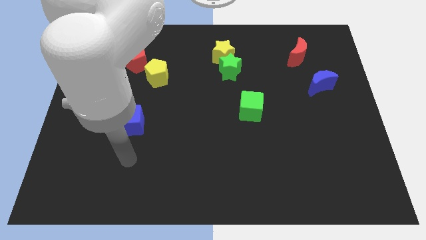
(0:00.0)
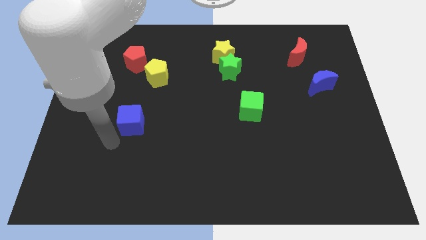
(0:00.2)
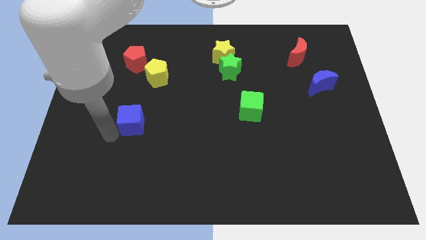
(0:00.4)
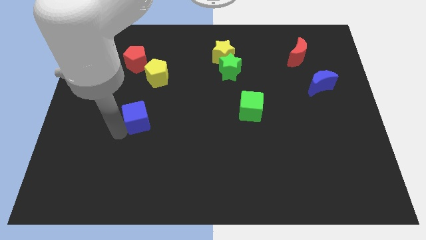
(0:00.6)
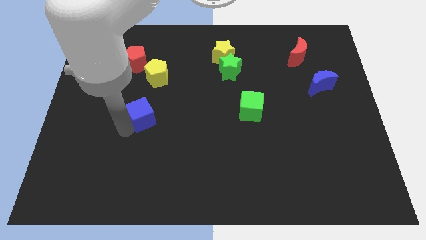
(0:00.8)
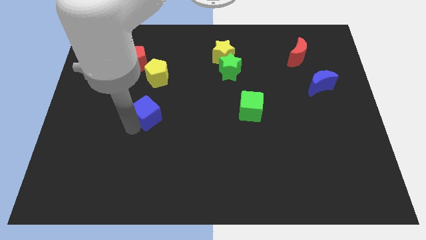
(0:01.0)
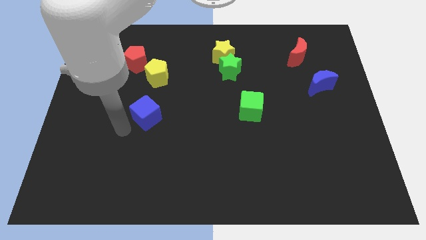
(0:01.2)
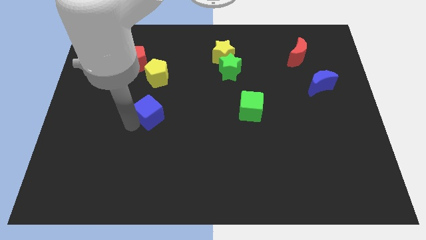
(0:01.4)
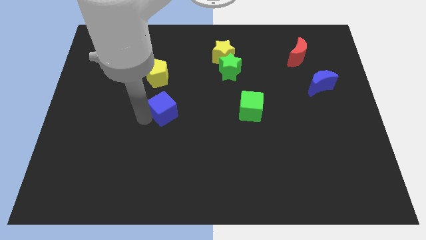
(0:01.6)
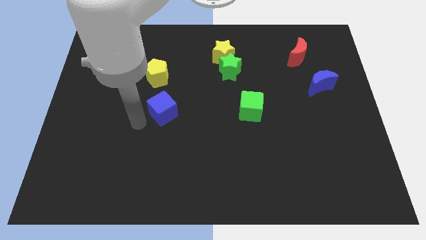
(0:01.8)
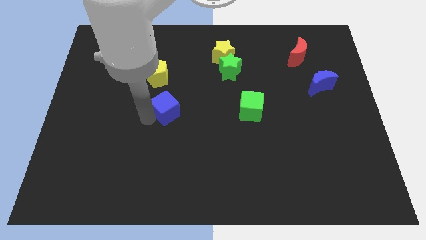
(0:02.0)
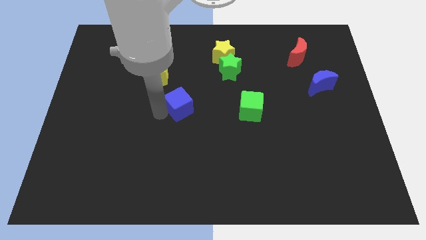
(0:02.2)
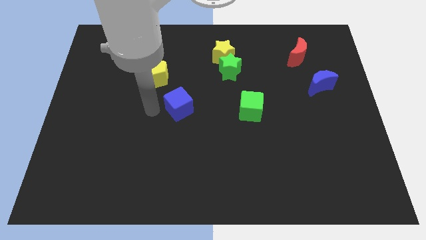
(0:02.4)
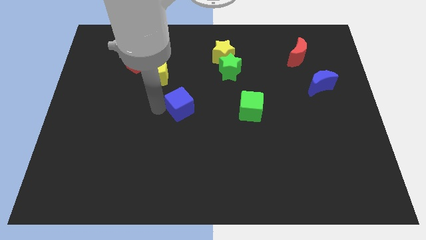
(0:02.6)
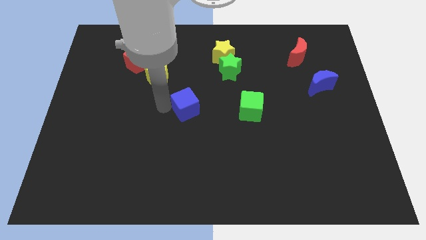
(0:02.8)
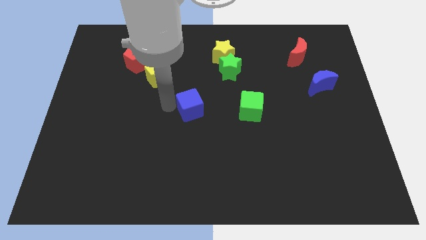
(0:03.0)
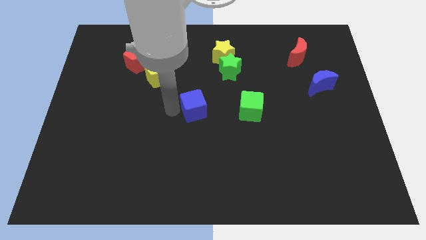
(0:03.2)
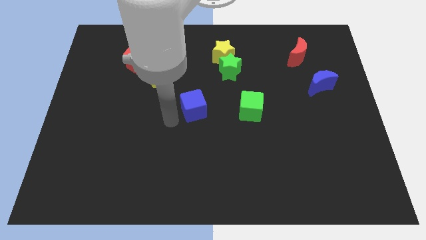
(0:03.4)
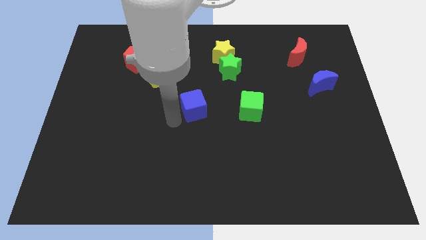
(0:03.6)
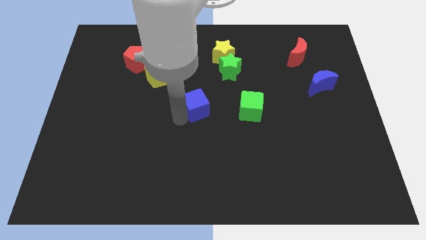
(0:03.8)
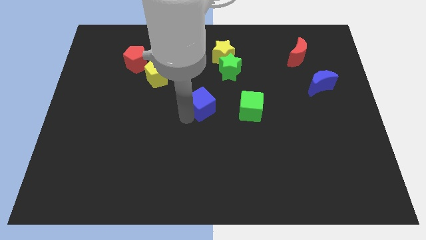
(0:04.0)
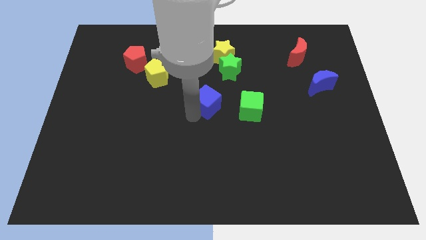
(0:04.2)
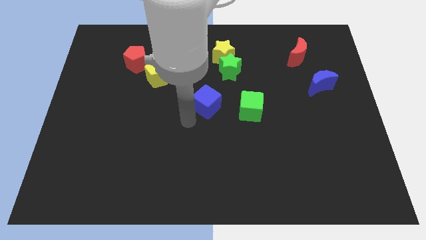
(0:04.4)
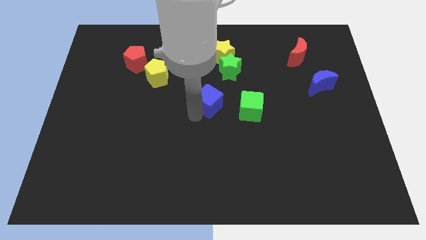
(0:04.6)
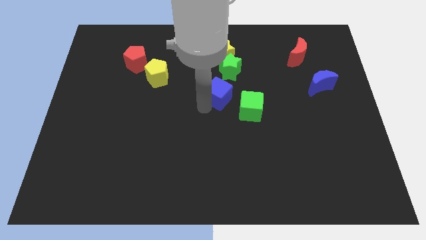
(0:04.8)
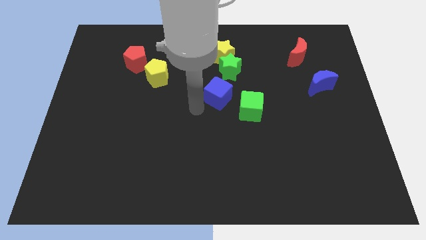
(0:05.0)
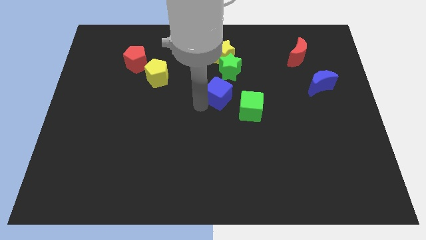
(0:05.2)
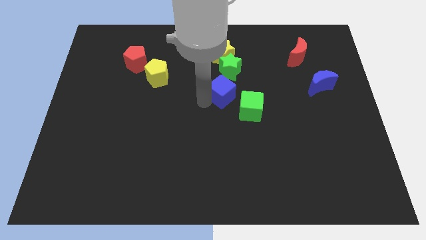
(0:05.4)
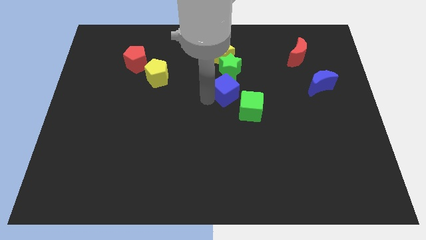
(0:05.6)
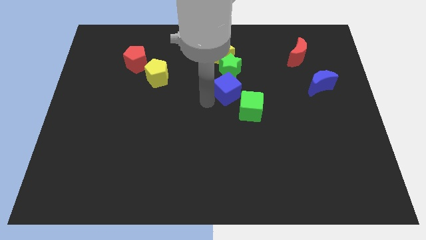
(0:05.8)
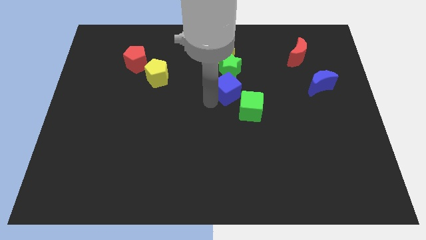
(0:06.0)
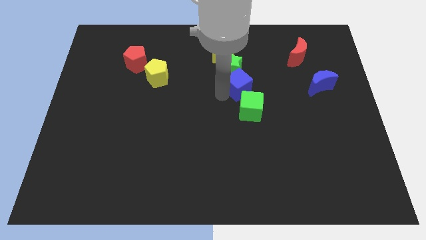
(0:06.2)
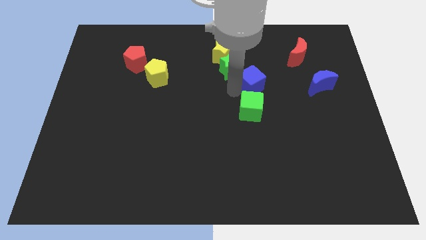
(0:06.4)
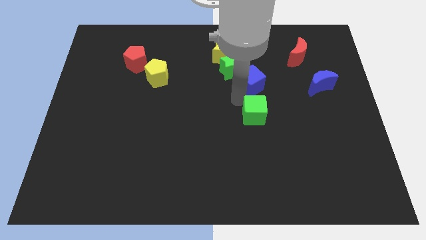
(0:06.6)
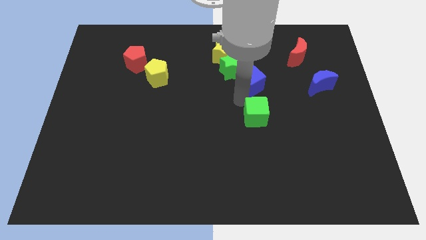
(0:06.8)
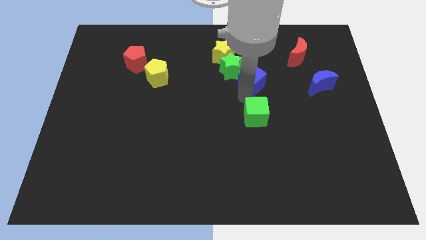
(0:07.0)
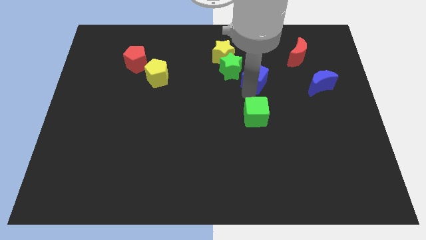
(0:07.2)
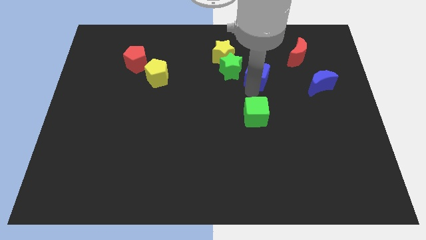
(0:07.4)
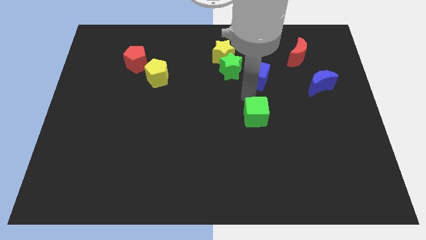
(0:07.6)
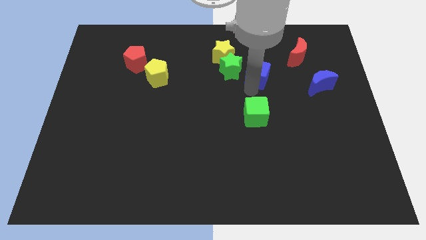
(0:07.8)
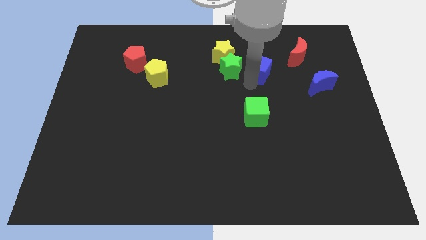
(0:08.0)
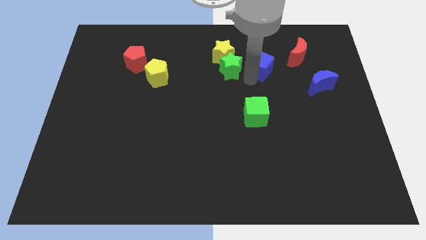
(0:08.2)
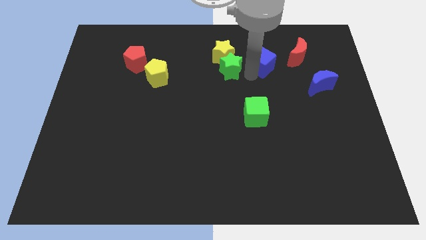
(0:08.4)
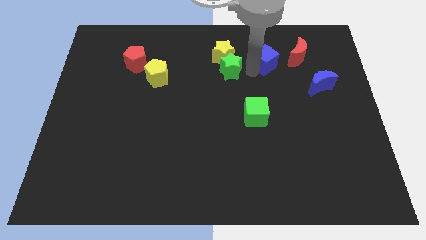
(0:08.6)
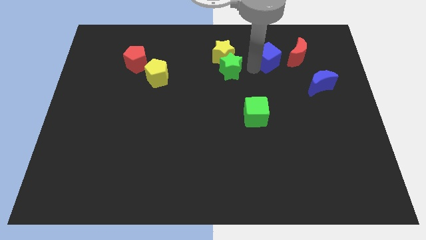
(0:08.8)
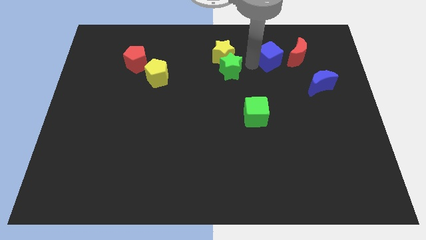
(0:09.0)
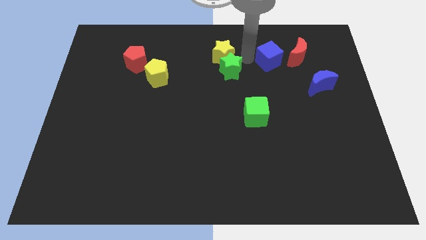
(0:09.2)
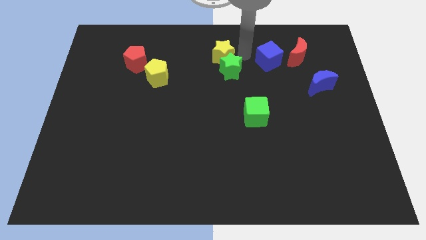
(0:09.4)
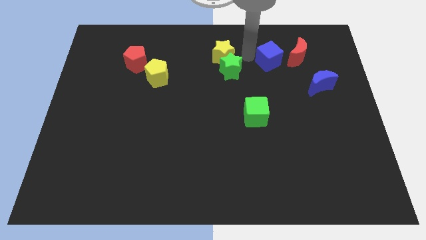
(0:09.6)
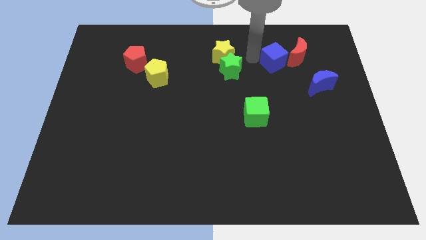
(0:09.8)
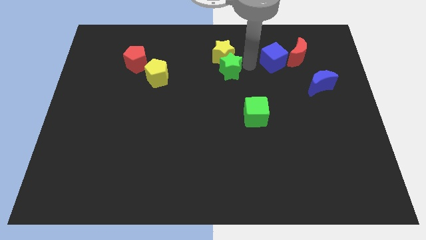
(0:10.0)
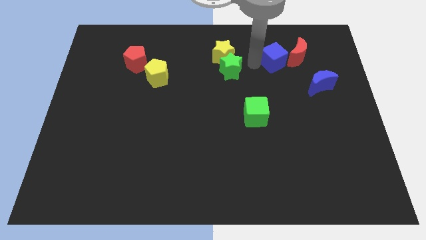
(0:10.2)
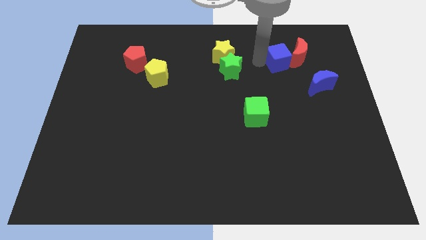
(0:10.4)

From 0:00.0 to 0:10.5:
push the blue cube close to the red moon

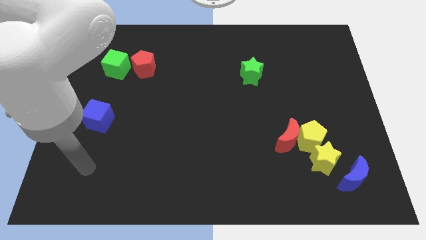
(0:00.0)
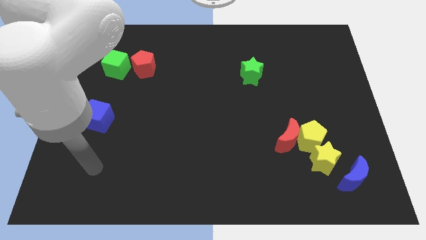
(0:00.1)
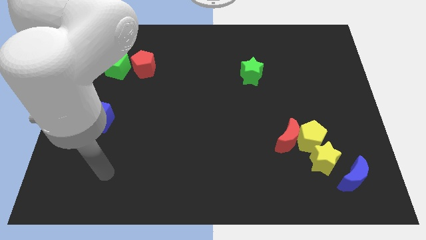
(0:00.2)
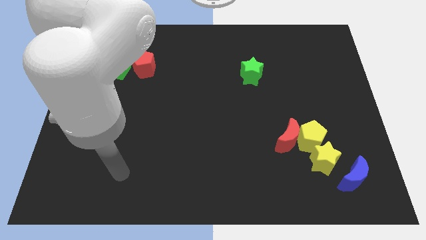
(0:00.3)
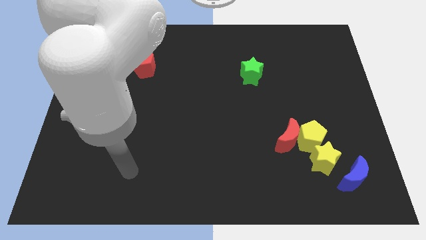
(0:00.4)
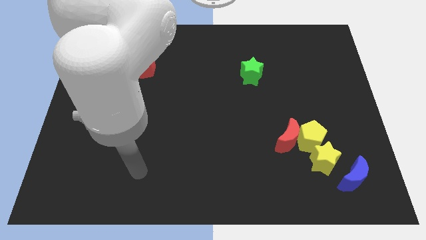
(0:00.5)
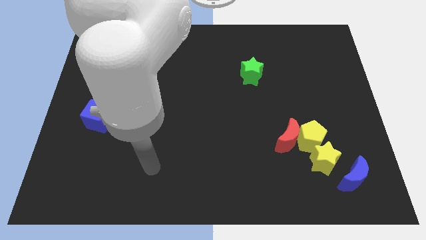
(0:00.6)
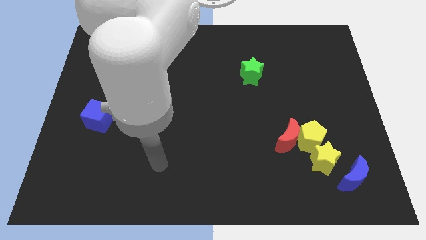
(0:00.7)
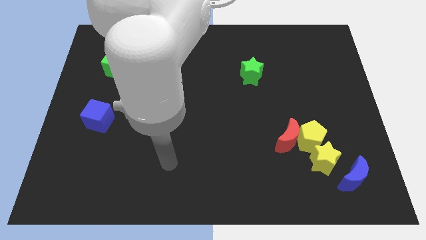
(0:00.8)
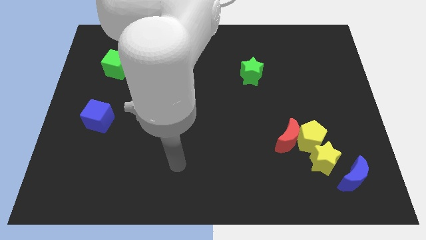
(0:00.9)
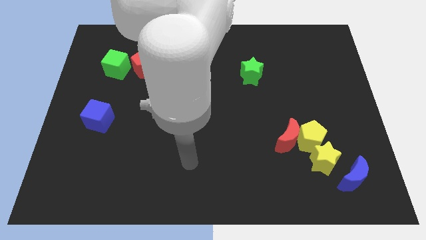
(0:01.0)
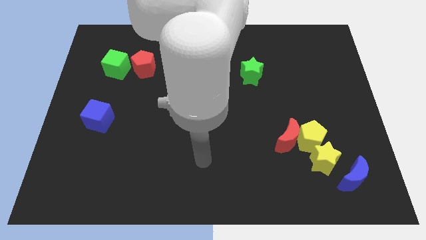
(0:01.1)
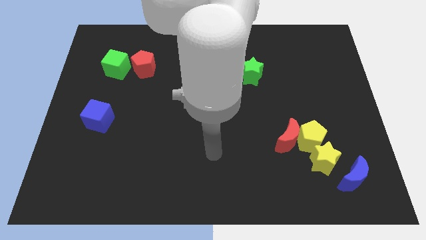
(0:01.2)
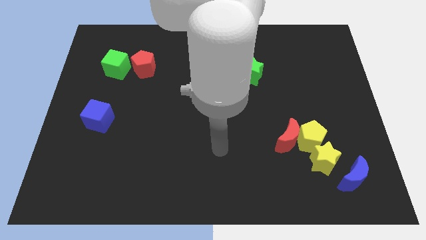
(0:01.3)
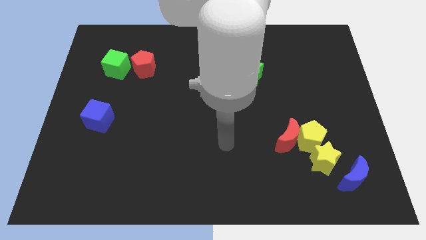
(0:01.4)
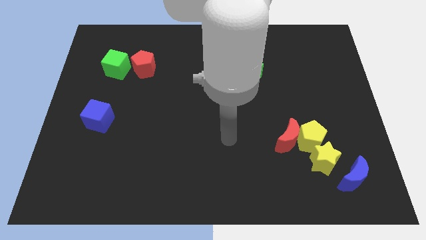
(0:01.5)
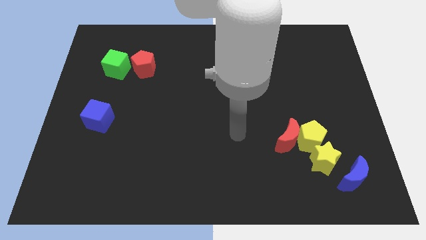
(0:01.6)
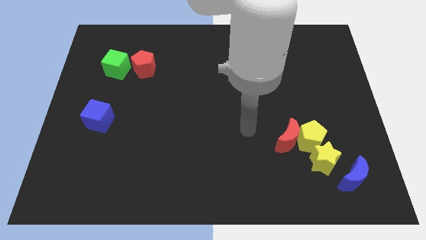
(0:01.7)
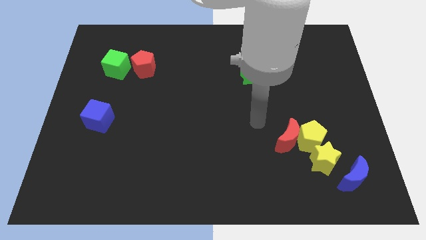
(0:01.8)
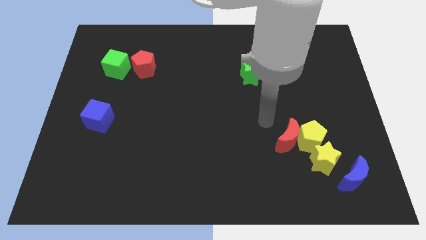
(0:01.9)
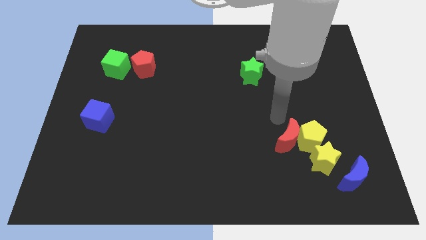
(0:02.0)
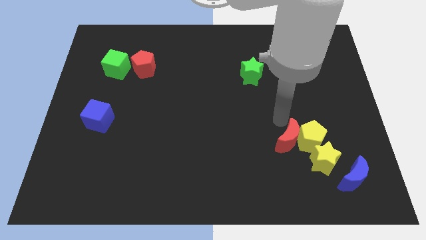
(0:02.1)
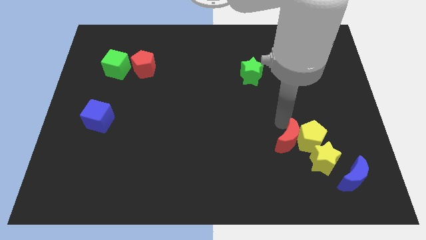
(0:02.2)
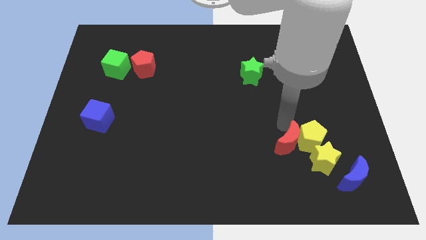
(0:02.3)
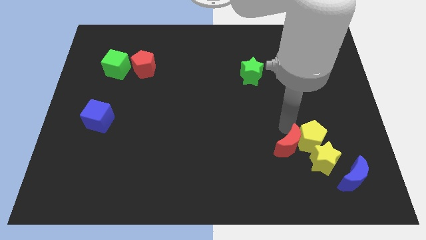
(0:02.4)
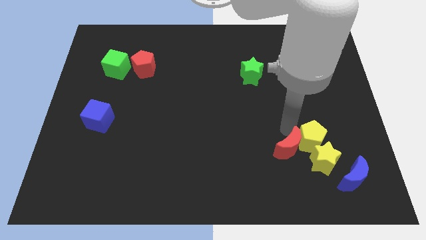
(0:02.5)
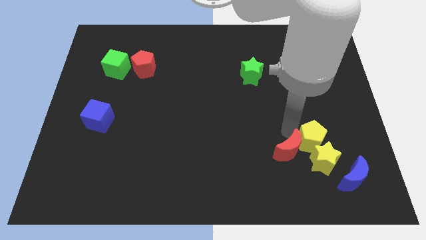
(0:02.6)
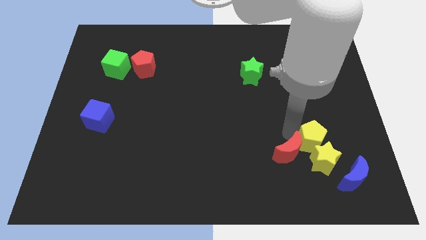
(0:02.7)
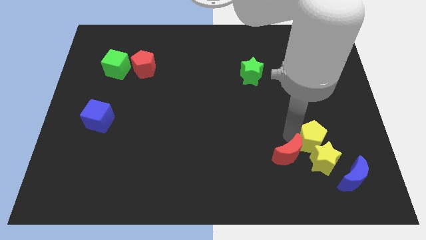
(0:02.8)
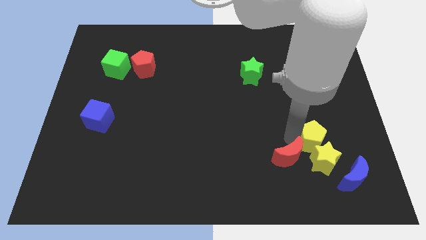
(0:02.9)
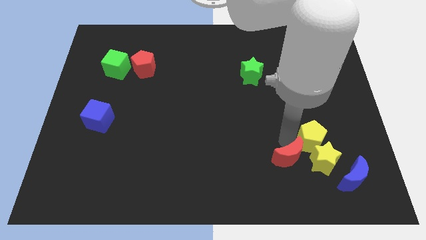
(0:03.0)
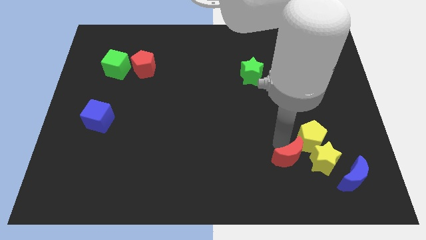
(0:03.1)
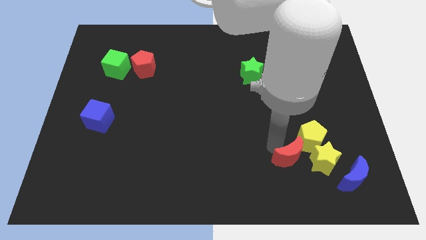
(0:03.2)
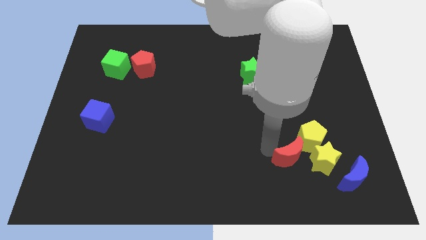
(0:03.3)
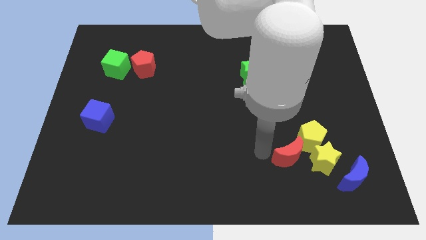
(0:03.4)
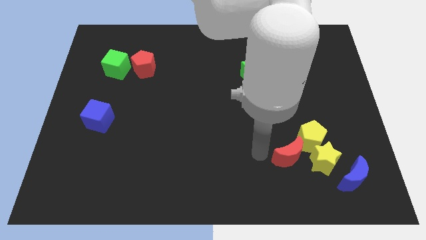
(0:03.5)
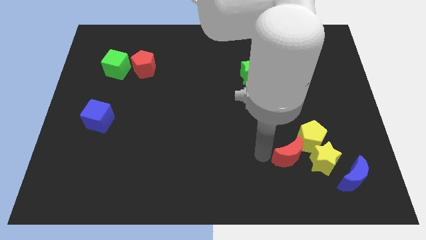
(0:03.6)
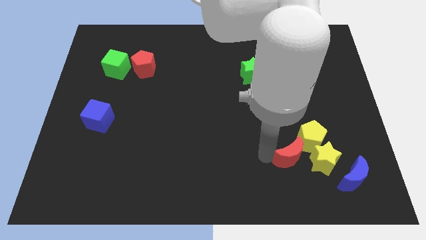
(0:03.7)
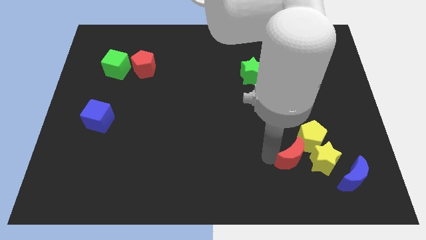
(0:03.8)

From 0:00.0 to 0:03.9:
move the red moon next to the yellow star
